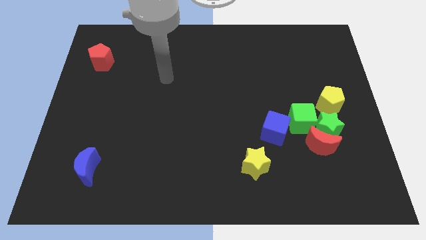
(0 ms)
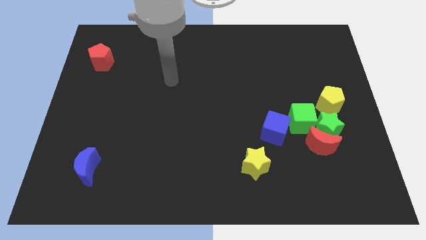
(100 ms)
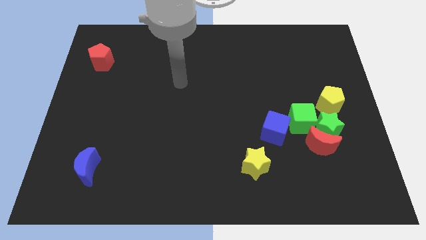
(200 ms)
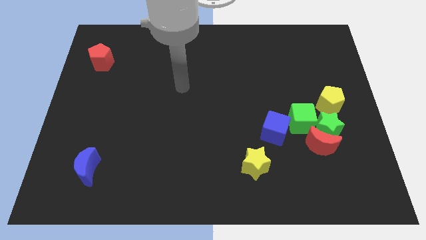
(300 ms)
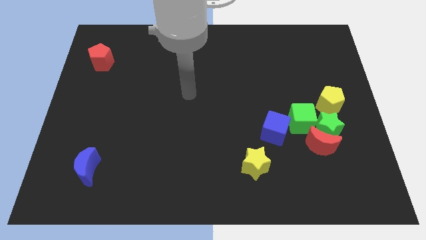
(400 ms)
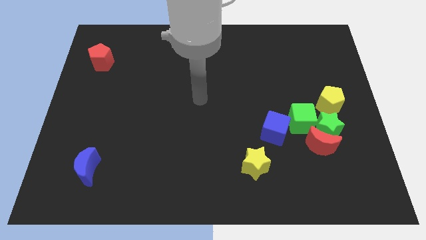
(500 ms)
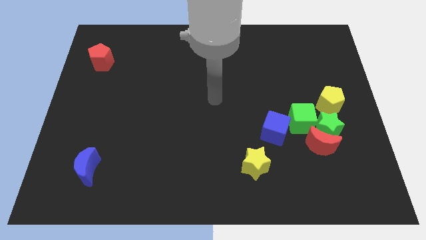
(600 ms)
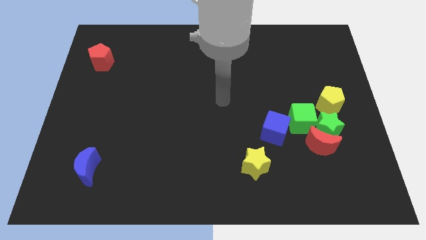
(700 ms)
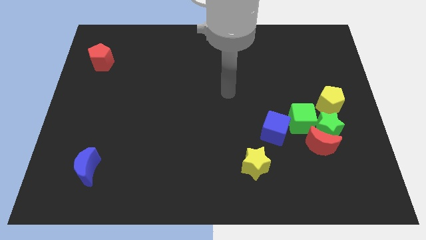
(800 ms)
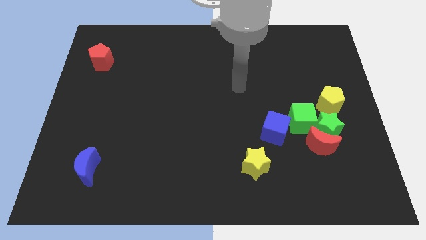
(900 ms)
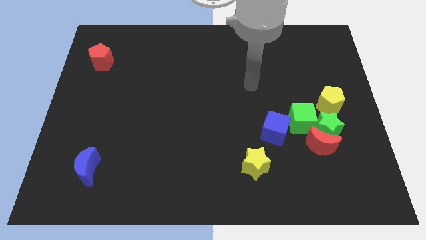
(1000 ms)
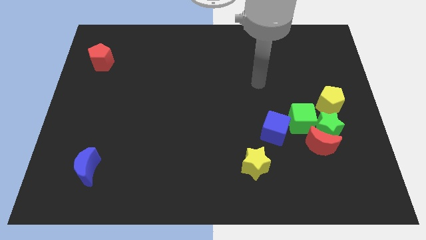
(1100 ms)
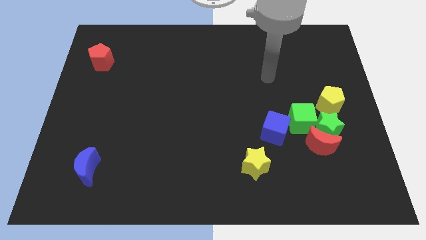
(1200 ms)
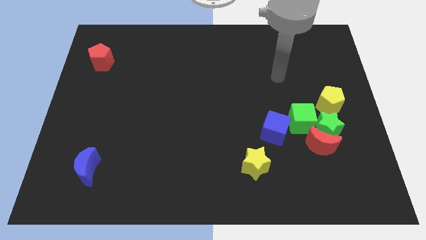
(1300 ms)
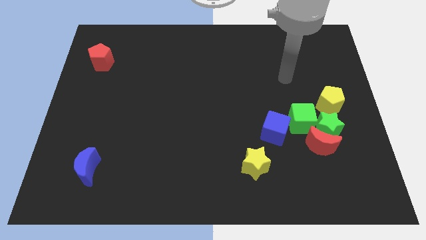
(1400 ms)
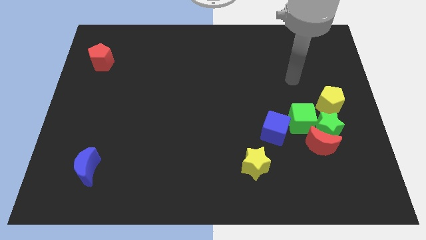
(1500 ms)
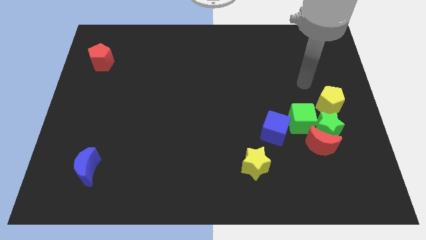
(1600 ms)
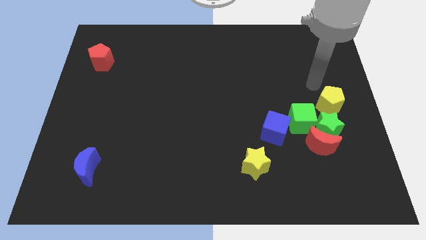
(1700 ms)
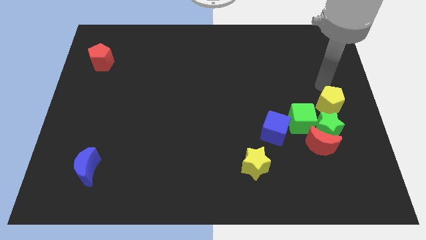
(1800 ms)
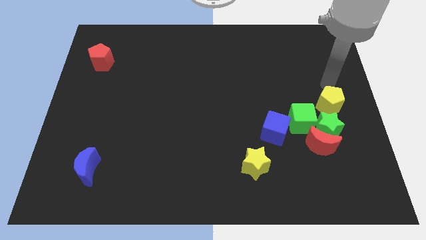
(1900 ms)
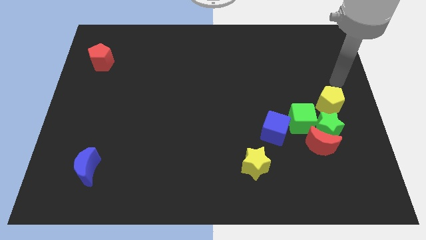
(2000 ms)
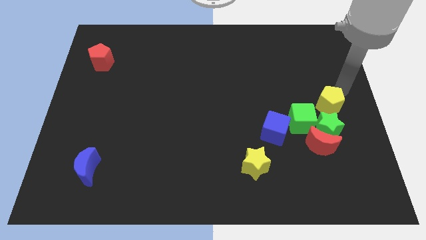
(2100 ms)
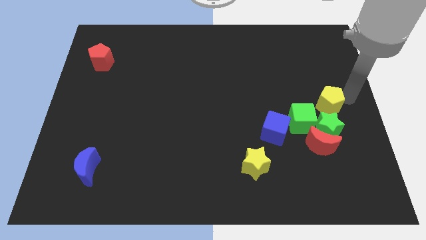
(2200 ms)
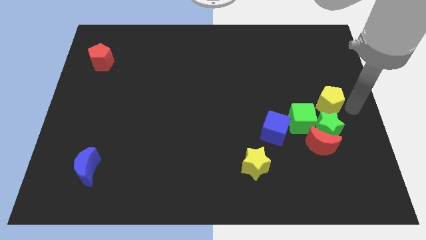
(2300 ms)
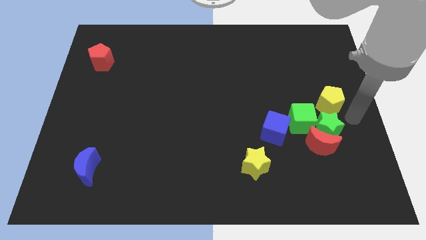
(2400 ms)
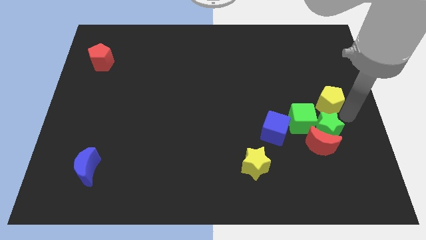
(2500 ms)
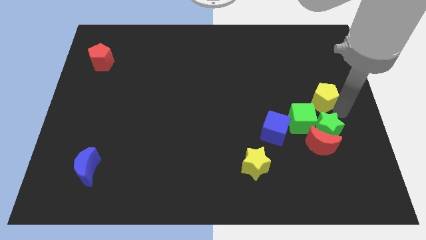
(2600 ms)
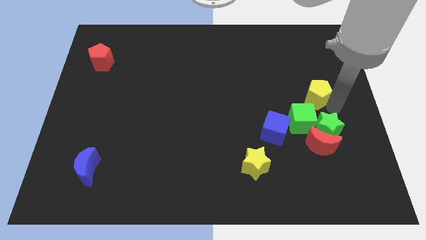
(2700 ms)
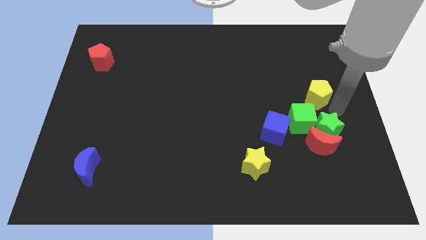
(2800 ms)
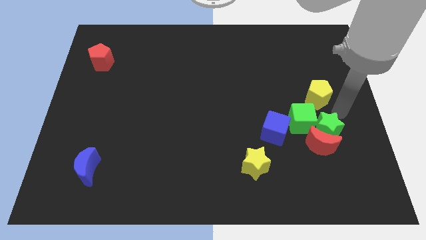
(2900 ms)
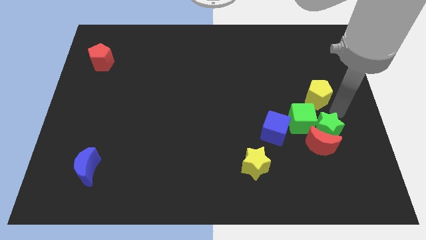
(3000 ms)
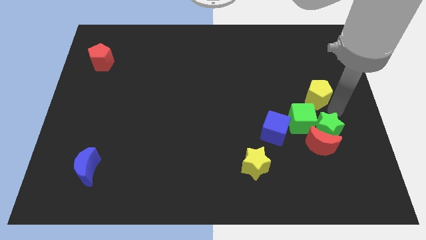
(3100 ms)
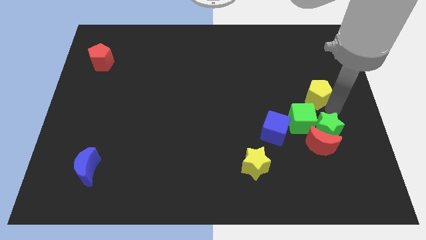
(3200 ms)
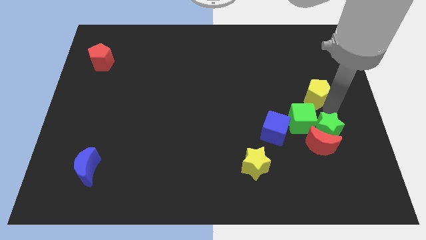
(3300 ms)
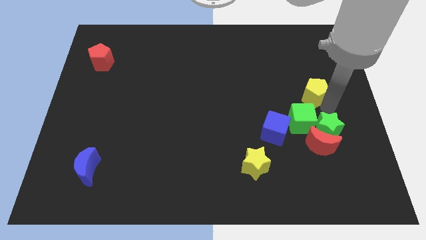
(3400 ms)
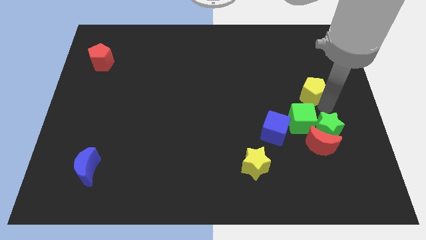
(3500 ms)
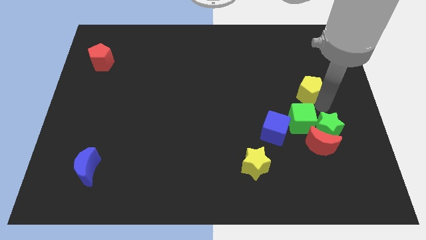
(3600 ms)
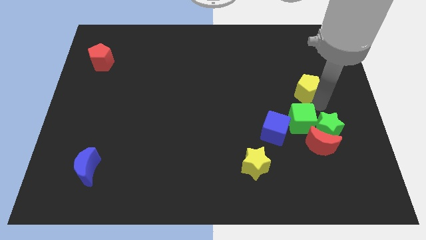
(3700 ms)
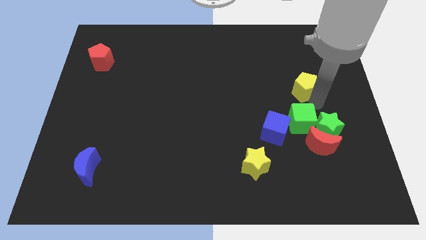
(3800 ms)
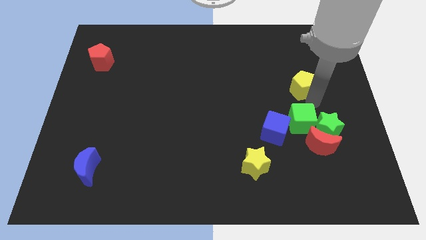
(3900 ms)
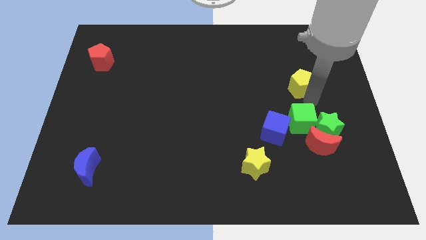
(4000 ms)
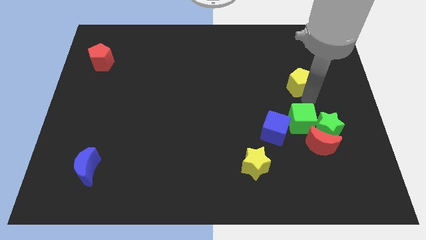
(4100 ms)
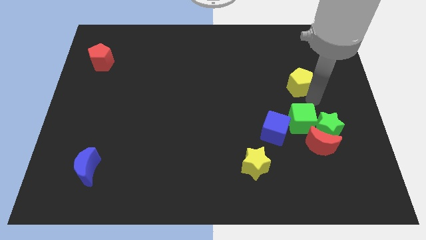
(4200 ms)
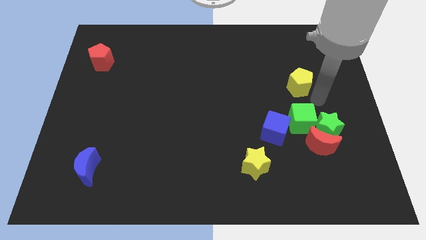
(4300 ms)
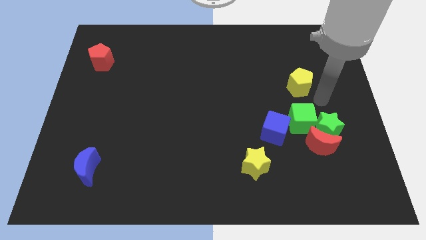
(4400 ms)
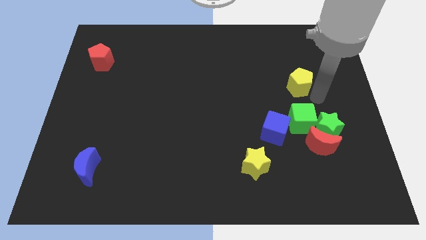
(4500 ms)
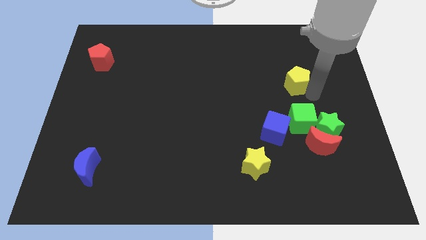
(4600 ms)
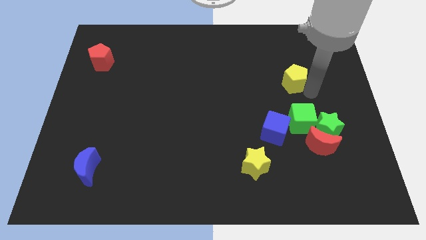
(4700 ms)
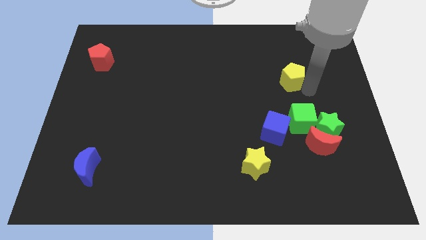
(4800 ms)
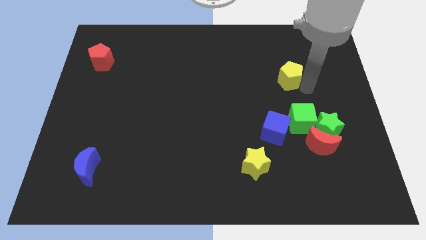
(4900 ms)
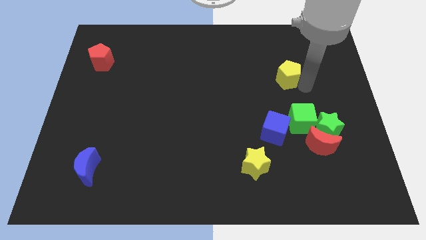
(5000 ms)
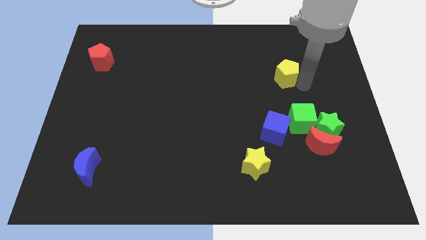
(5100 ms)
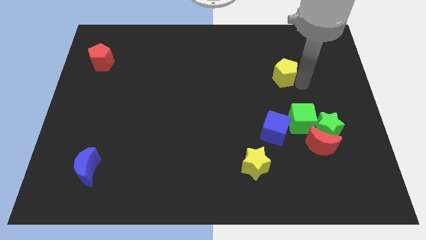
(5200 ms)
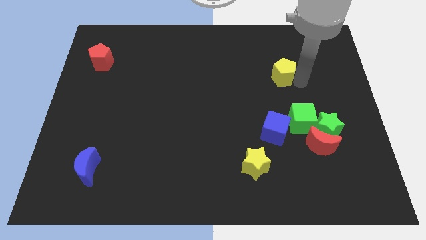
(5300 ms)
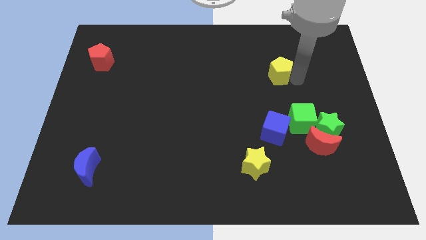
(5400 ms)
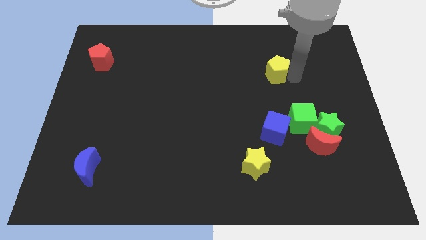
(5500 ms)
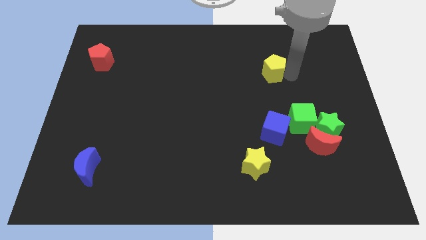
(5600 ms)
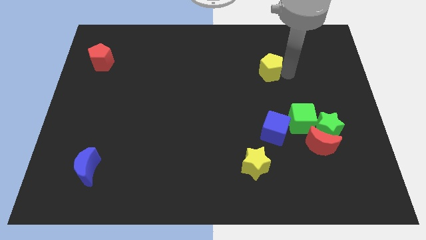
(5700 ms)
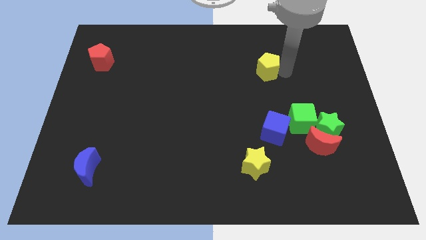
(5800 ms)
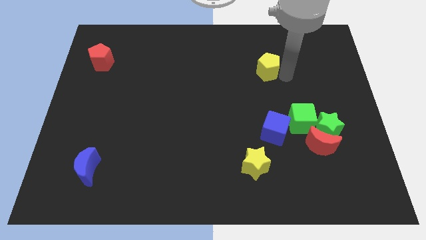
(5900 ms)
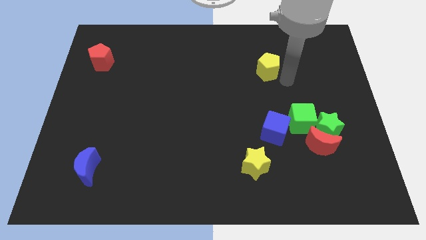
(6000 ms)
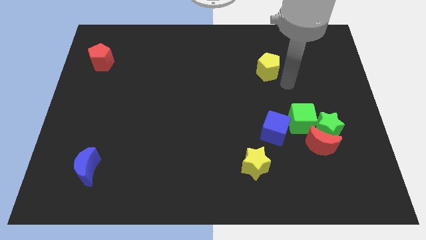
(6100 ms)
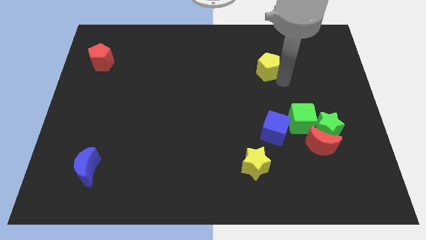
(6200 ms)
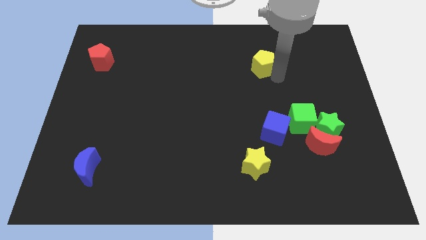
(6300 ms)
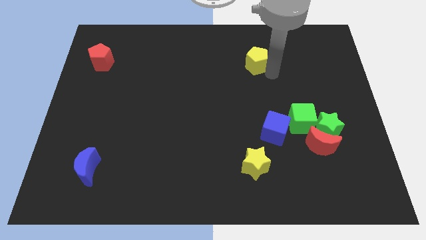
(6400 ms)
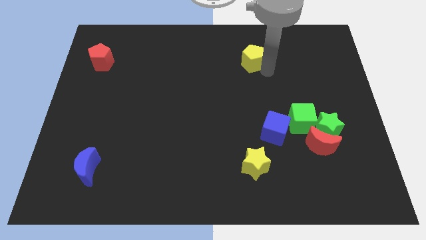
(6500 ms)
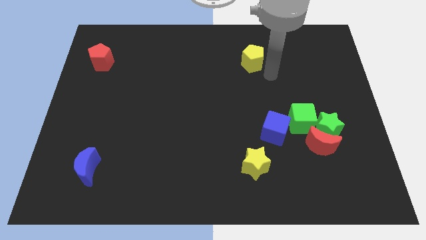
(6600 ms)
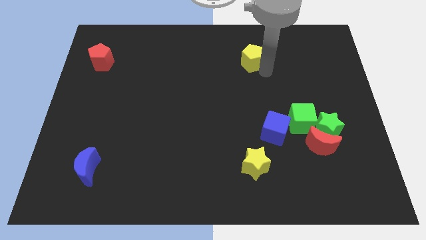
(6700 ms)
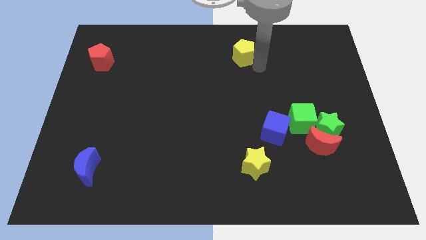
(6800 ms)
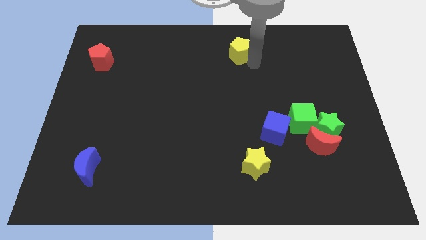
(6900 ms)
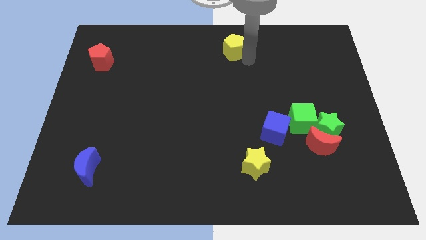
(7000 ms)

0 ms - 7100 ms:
push the yellow pentagon to the top side
